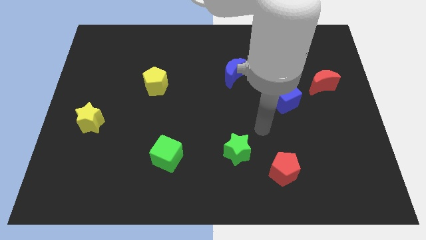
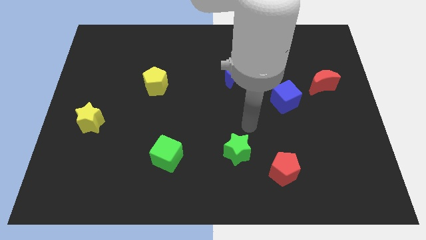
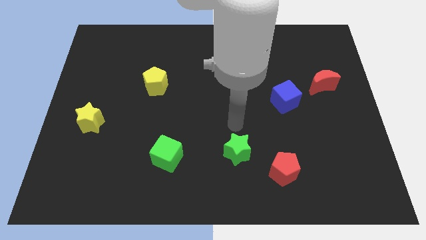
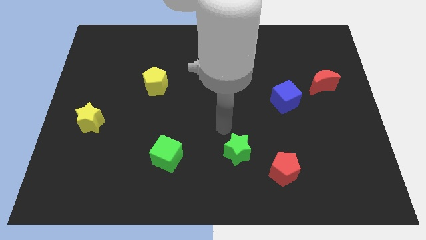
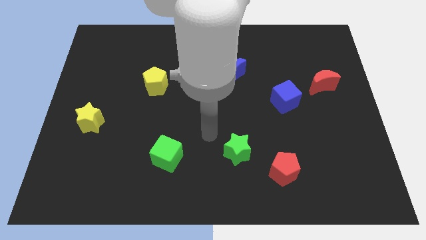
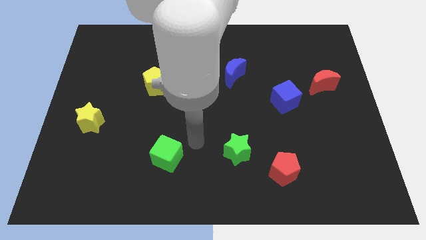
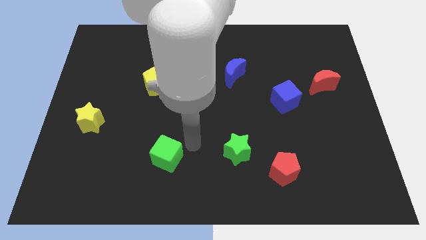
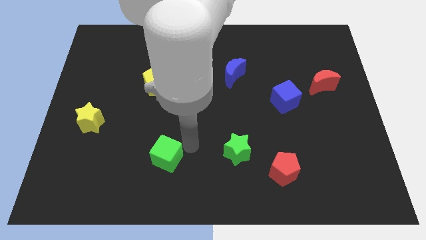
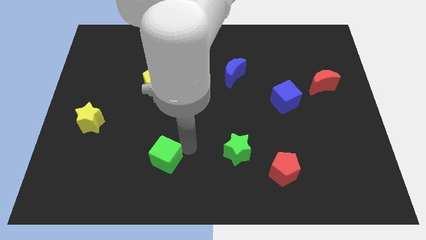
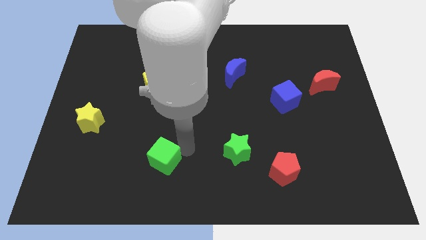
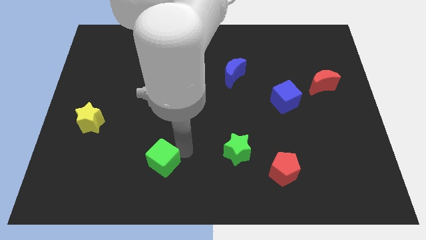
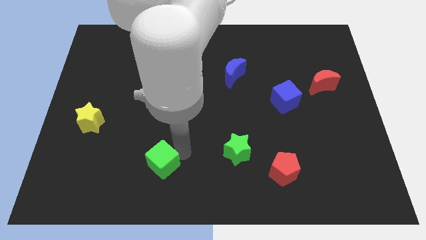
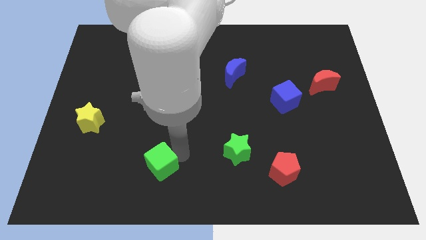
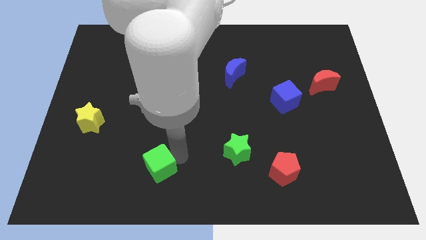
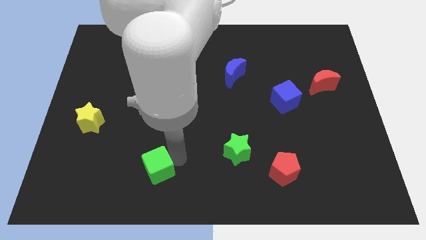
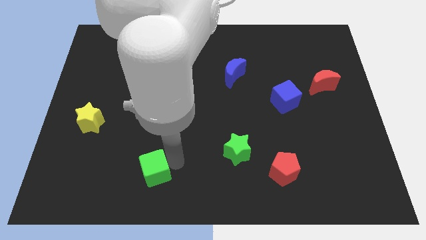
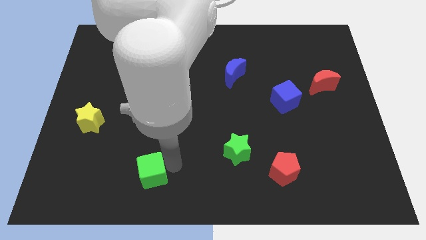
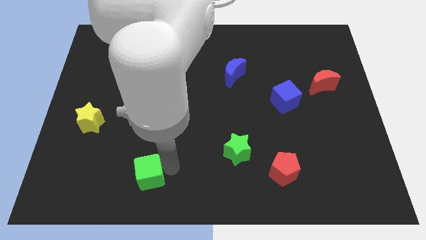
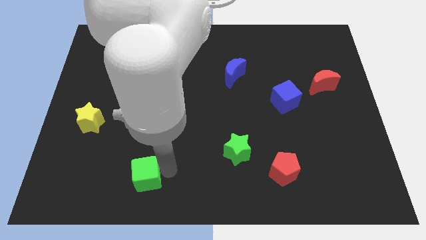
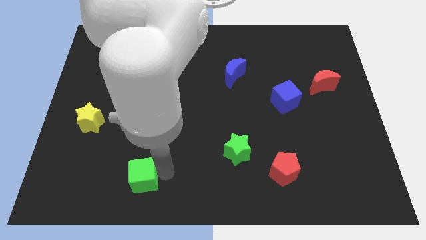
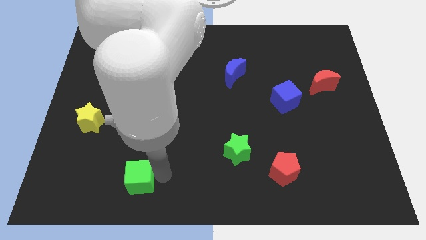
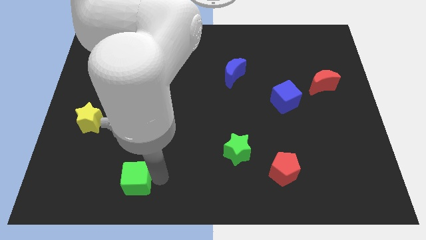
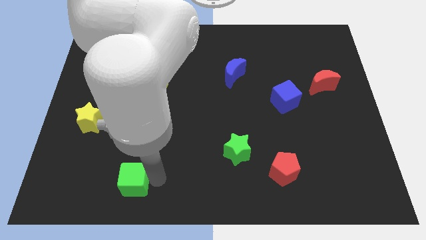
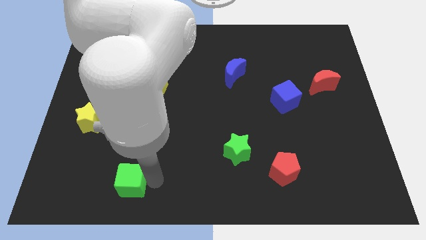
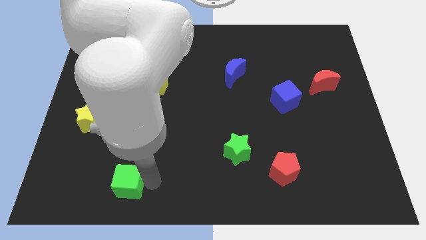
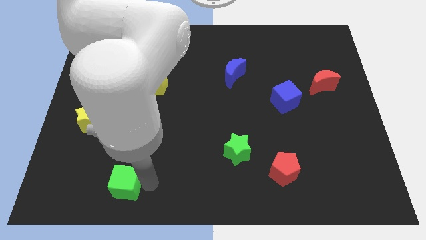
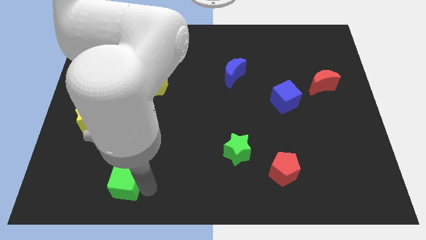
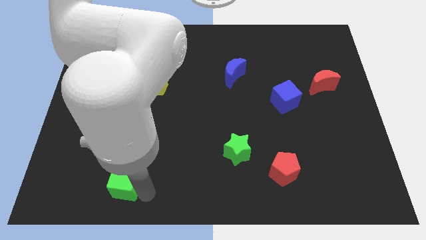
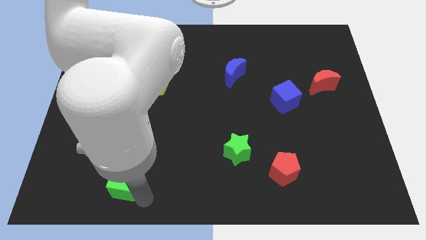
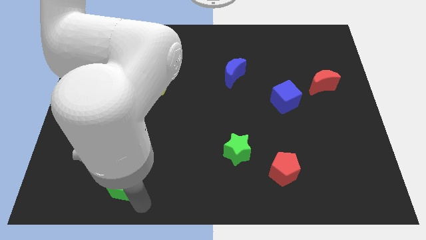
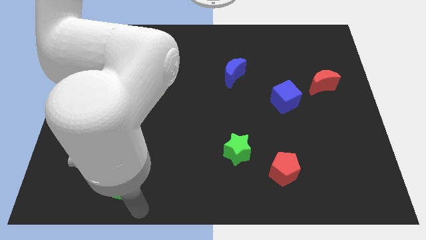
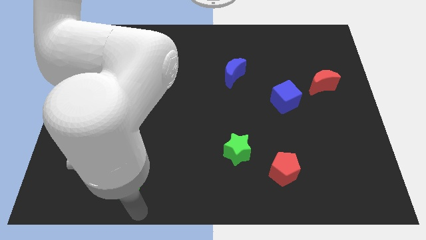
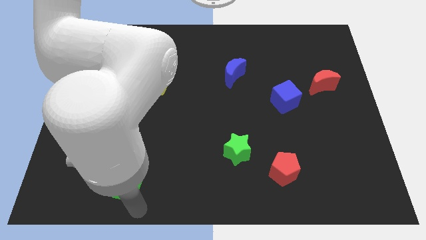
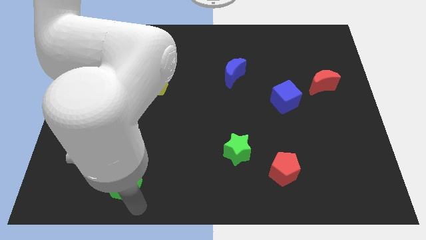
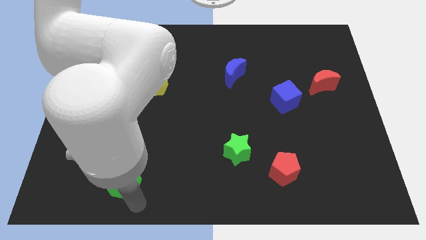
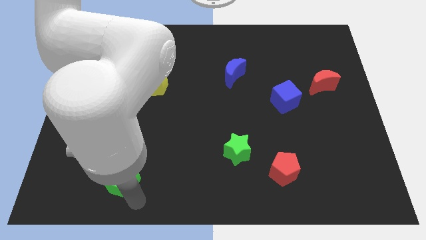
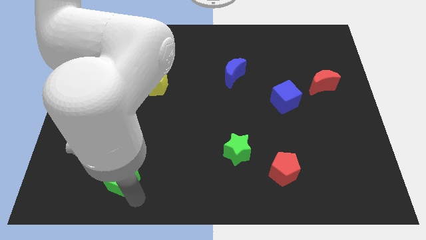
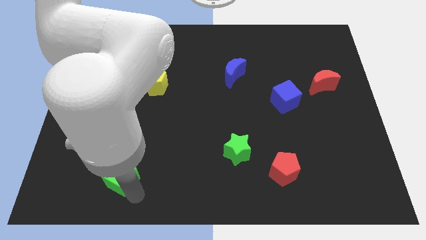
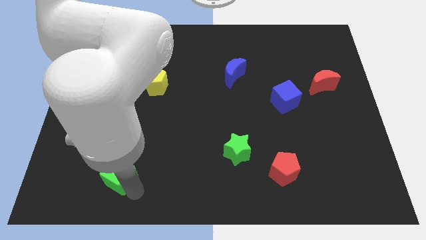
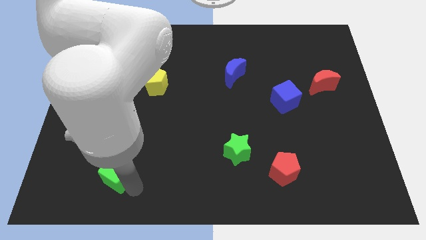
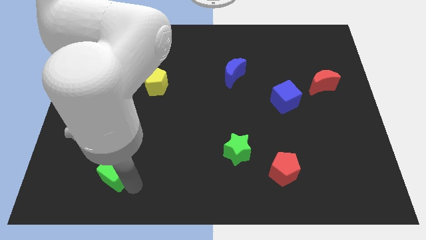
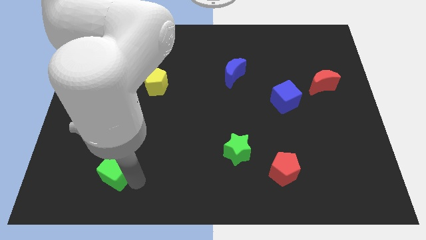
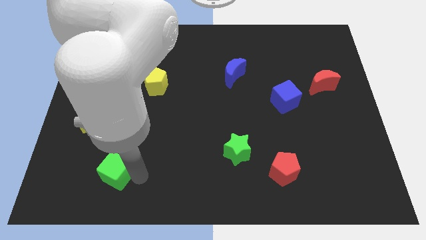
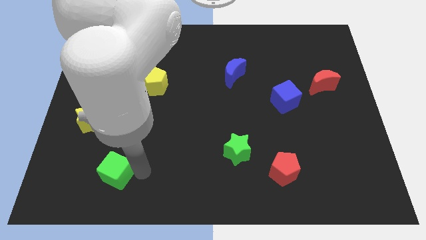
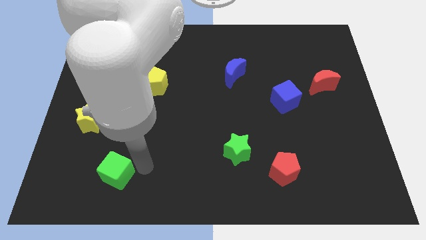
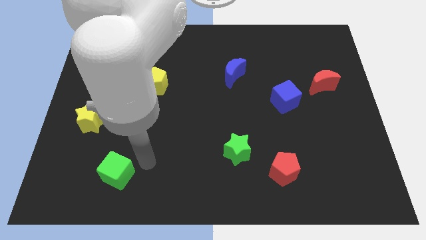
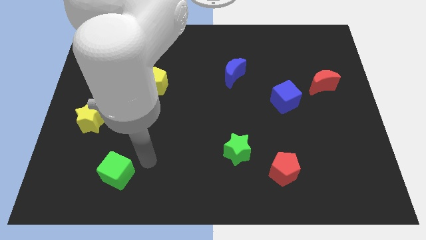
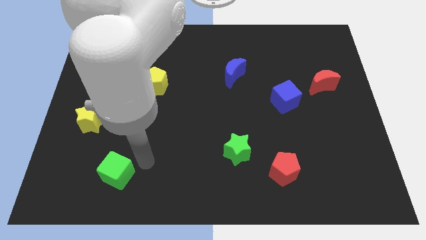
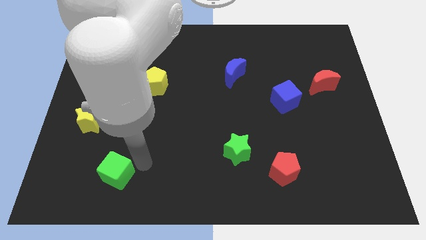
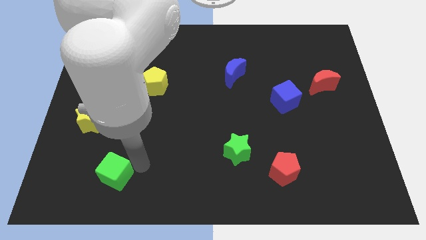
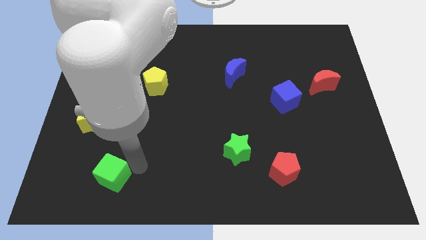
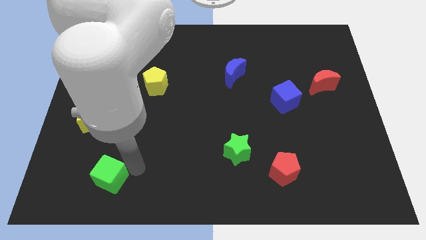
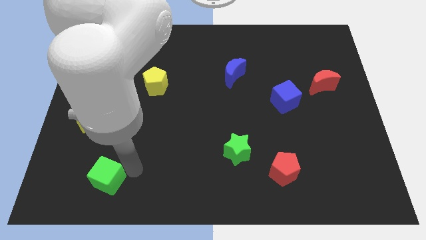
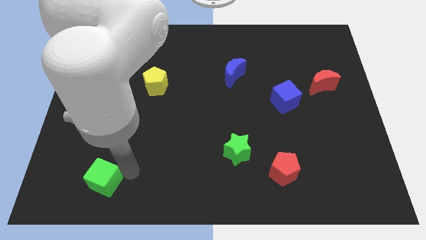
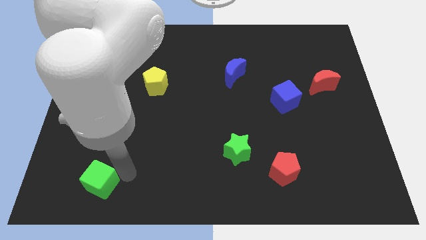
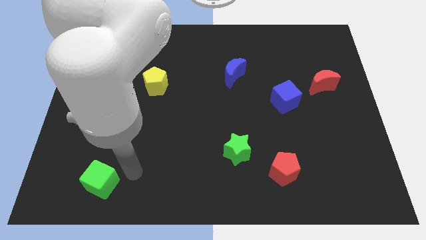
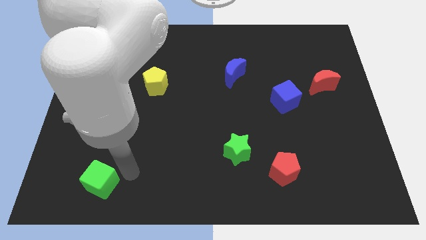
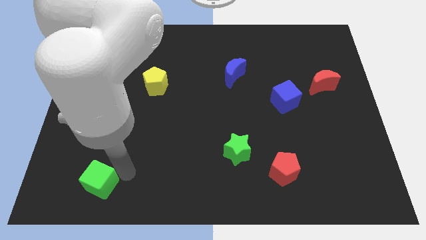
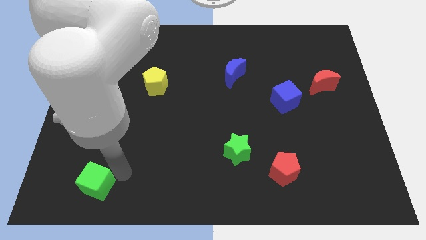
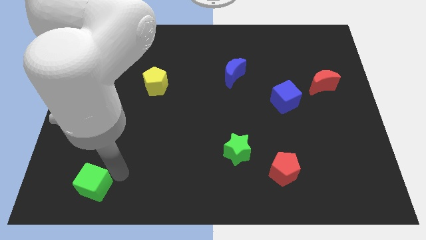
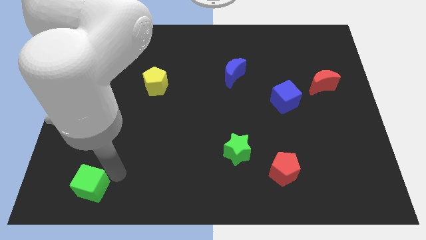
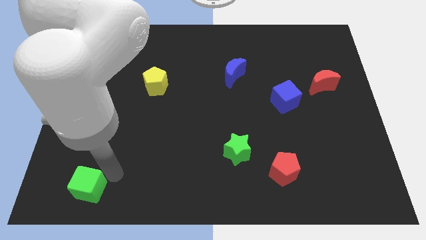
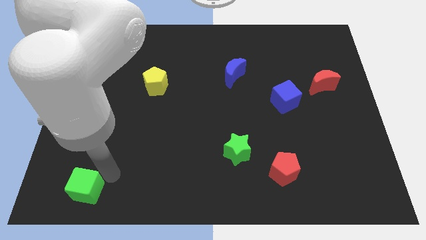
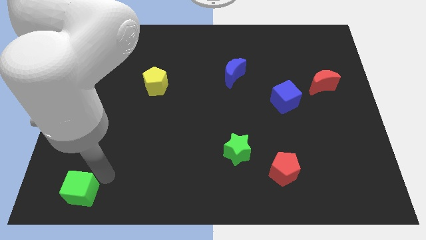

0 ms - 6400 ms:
move the green cube to the bottom left of the board
